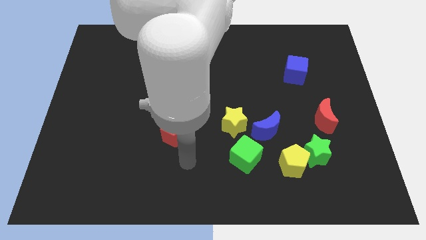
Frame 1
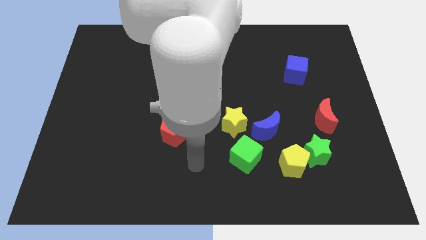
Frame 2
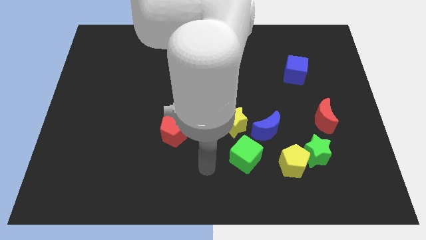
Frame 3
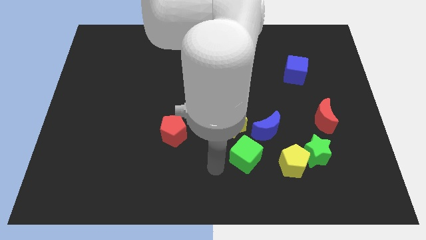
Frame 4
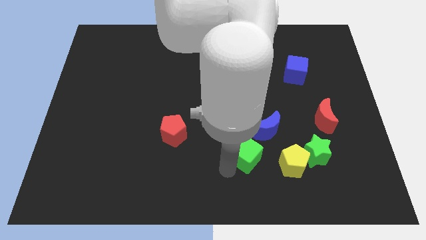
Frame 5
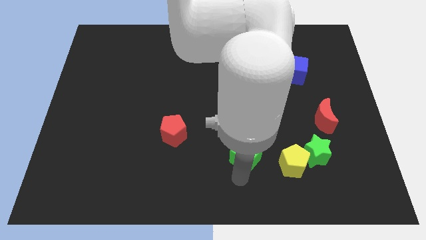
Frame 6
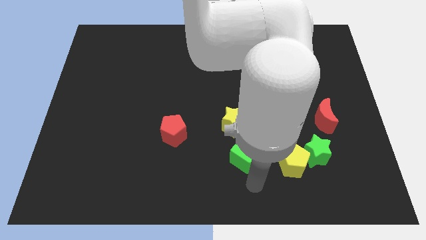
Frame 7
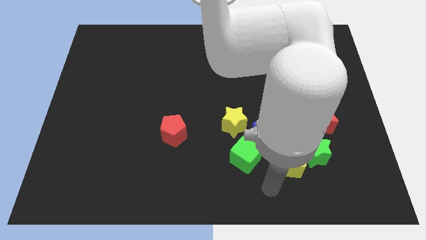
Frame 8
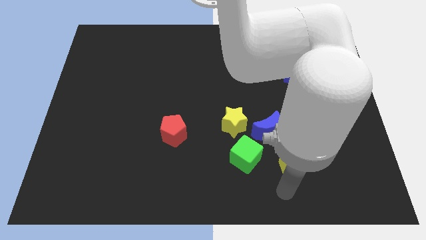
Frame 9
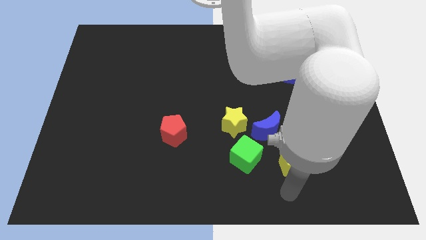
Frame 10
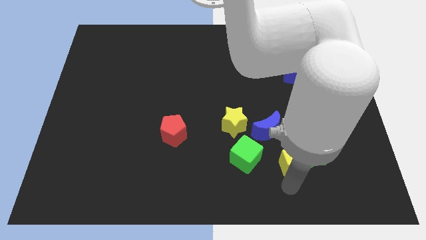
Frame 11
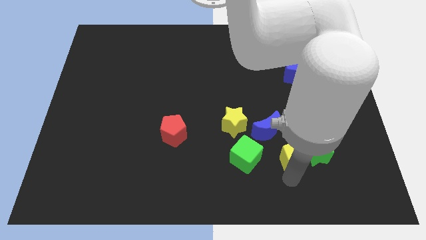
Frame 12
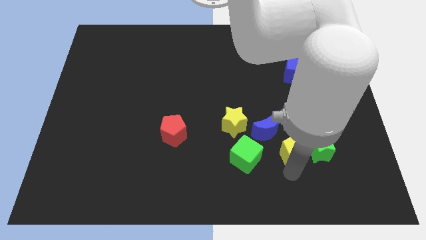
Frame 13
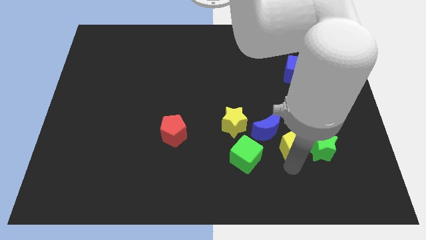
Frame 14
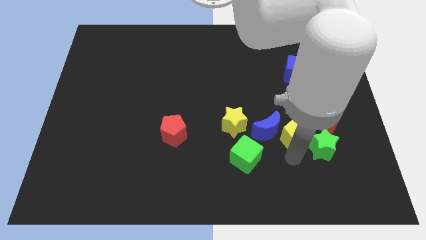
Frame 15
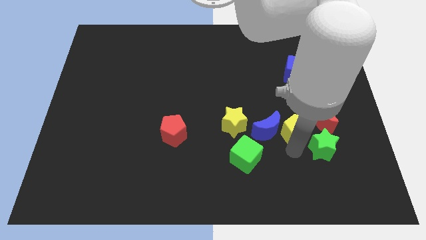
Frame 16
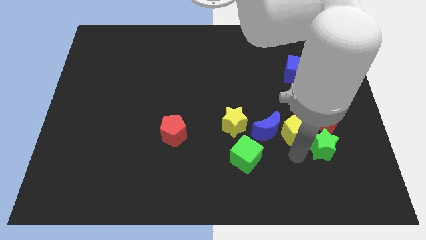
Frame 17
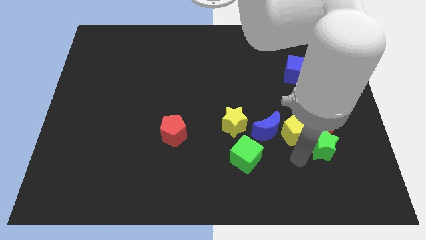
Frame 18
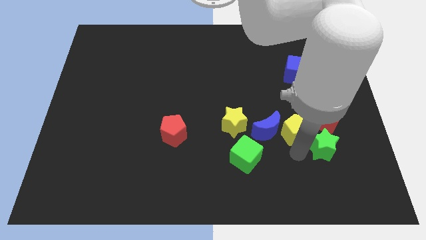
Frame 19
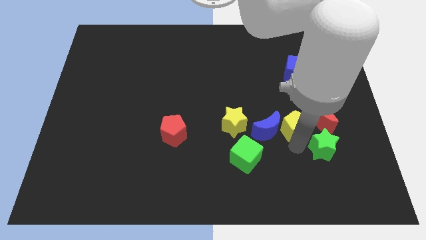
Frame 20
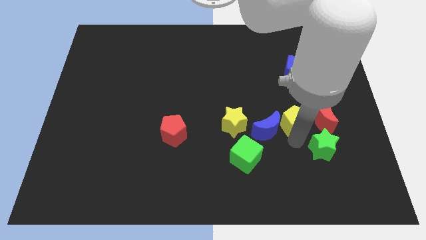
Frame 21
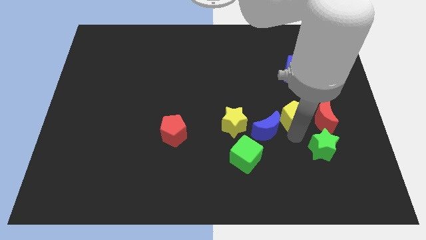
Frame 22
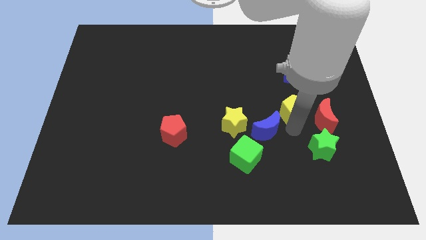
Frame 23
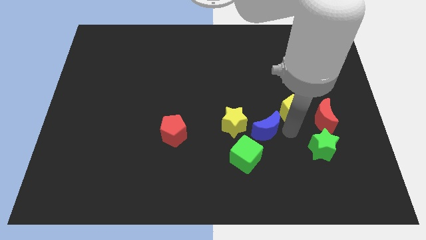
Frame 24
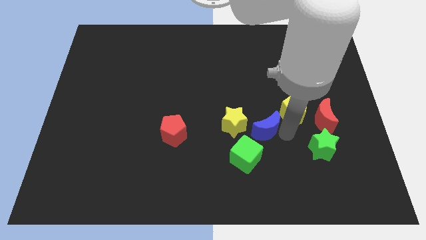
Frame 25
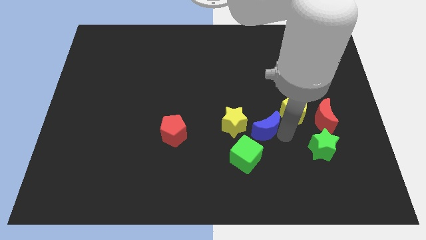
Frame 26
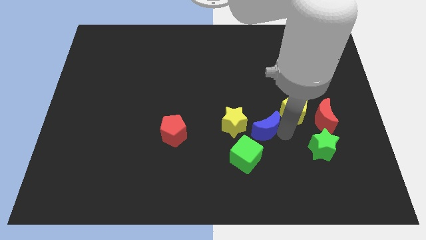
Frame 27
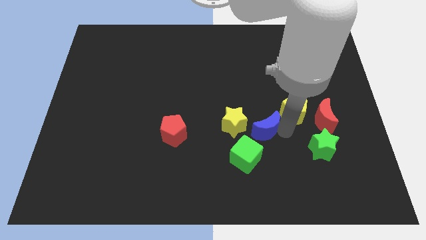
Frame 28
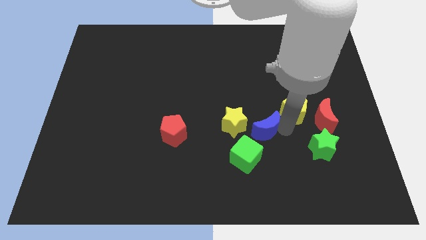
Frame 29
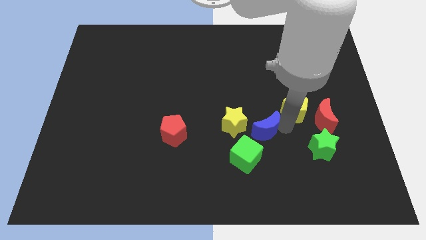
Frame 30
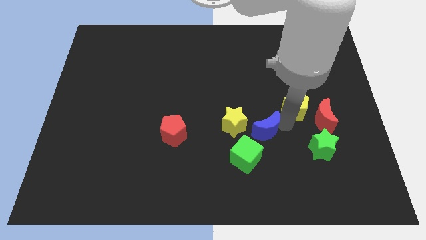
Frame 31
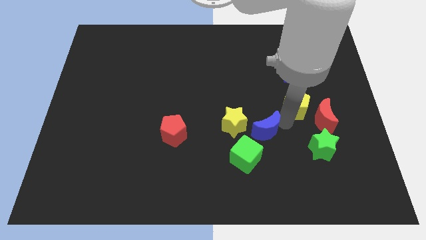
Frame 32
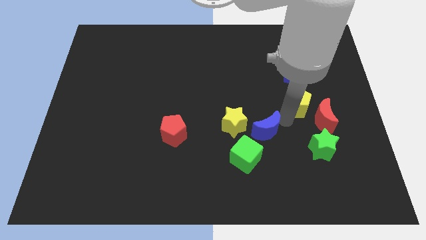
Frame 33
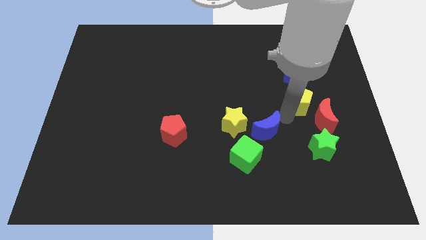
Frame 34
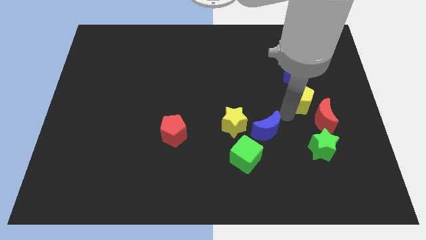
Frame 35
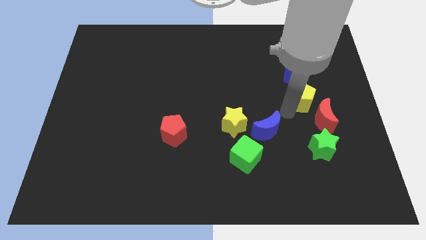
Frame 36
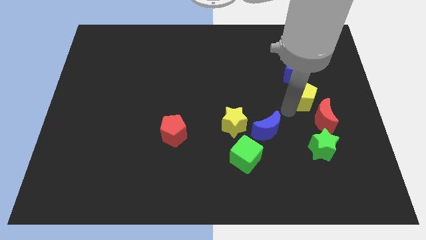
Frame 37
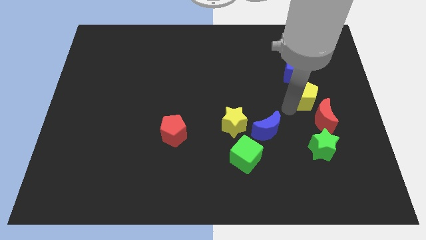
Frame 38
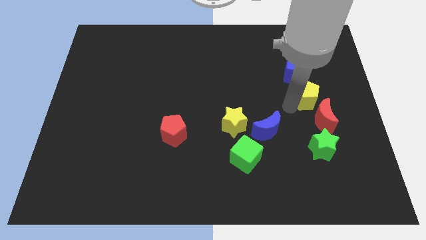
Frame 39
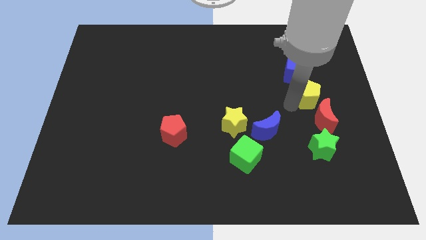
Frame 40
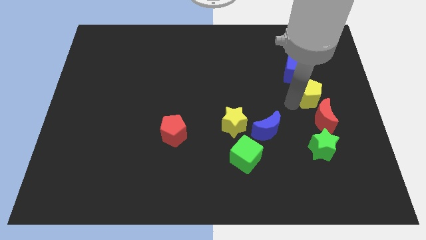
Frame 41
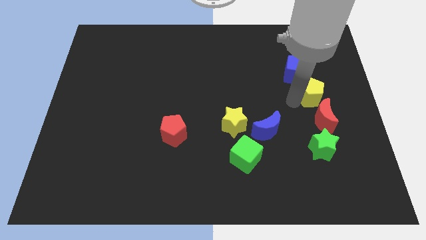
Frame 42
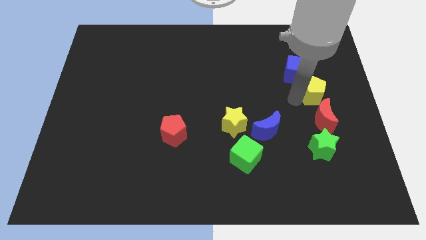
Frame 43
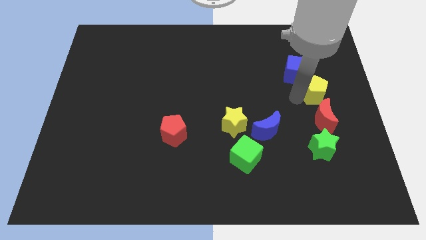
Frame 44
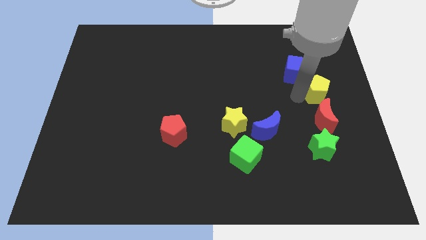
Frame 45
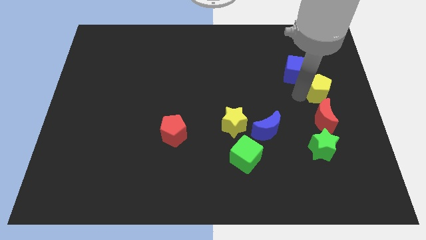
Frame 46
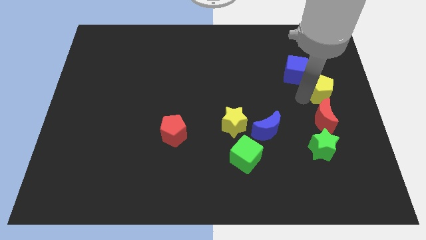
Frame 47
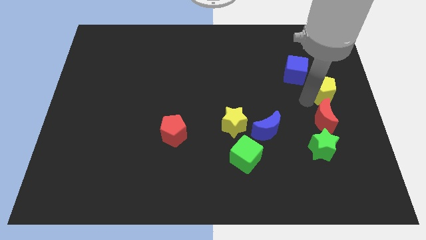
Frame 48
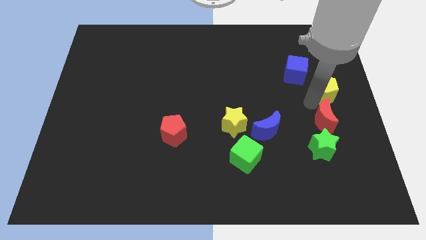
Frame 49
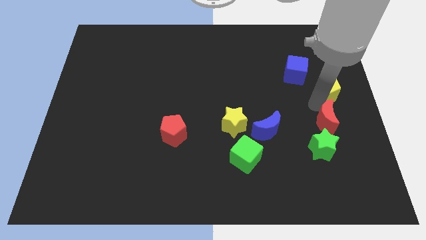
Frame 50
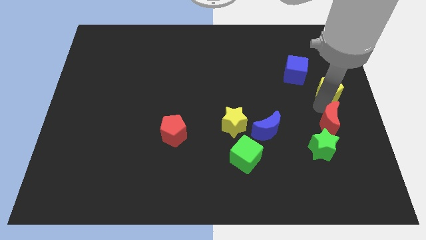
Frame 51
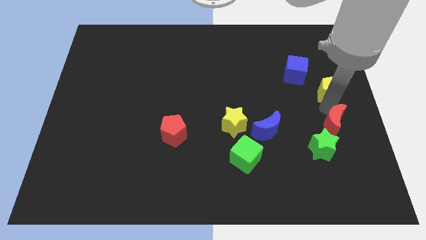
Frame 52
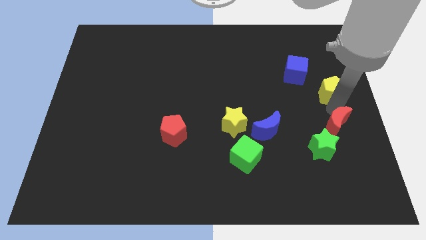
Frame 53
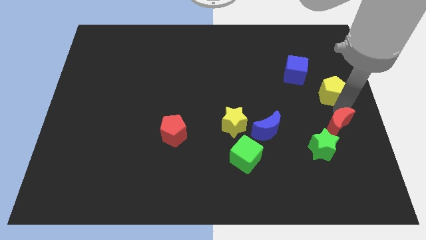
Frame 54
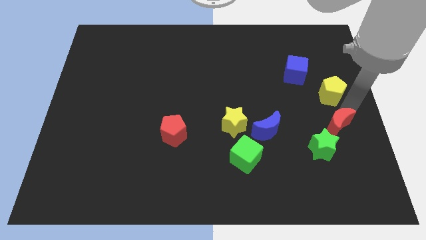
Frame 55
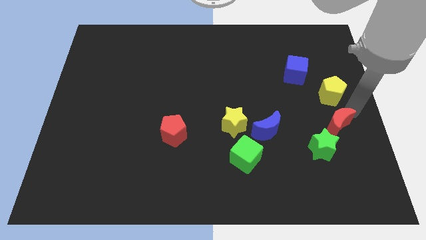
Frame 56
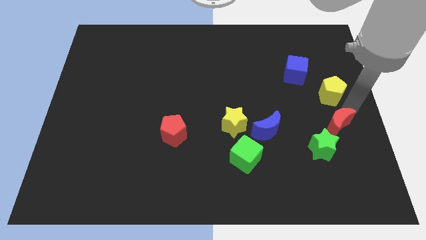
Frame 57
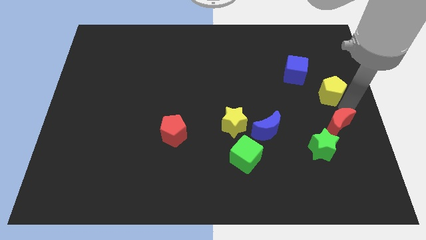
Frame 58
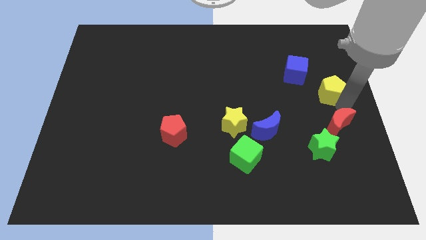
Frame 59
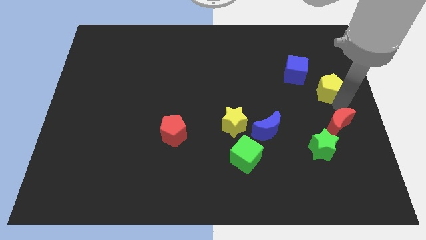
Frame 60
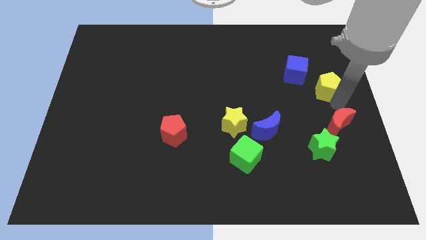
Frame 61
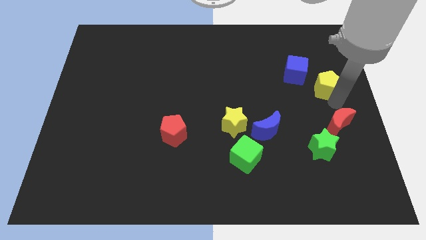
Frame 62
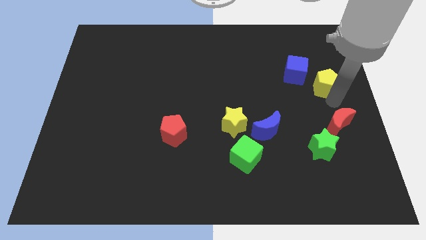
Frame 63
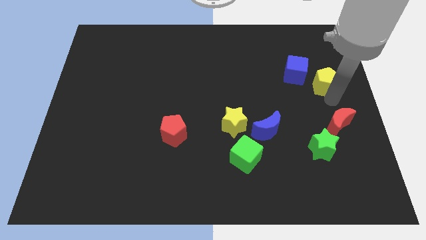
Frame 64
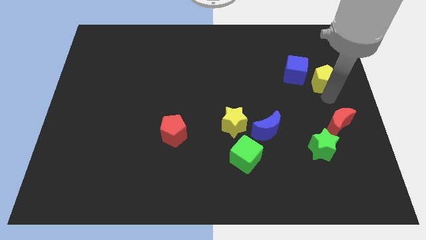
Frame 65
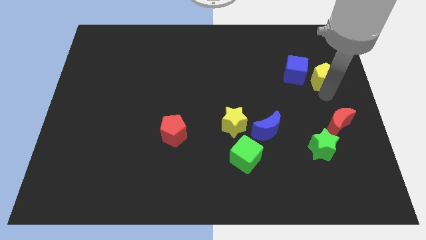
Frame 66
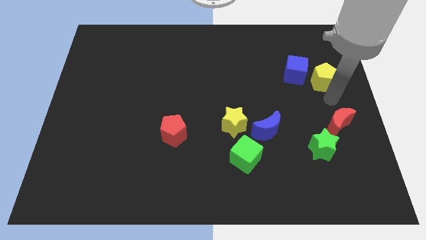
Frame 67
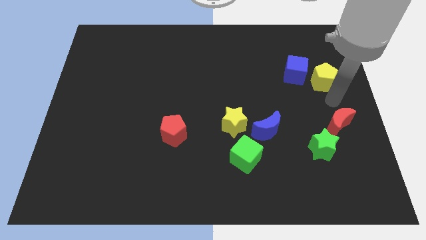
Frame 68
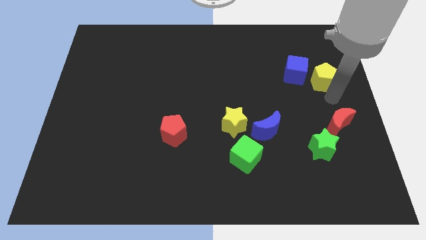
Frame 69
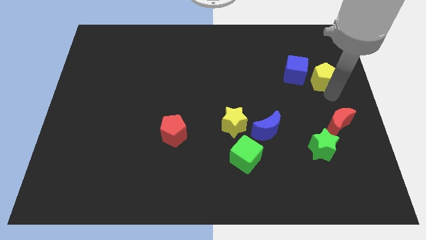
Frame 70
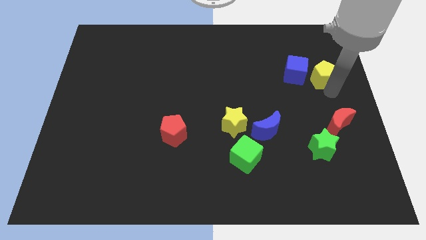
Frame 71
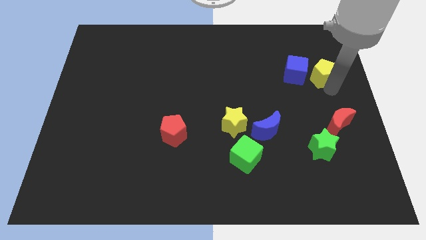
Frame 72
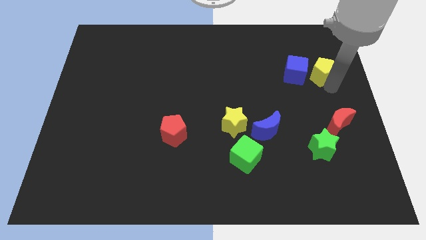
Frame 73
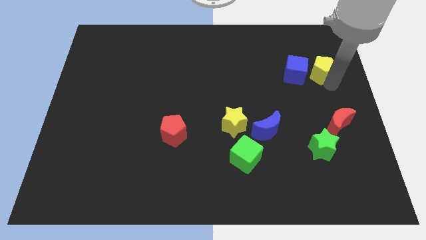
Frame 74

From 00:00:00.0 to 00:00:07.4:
push the yellow pentagon to the top right side of the blue cube
